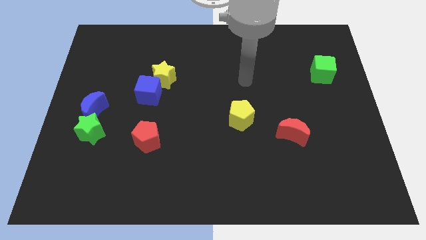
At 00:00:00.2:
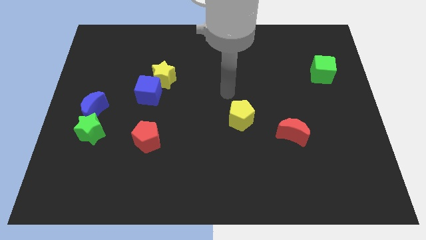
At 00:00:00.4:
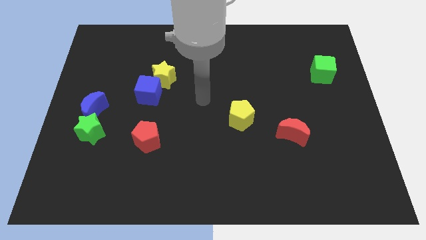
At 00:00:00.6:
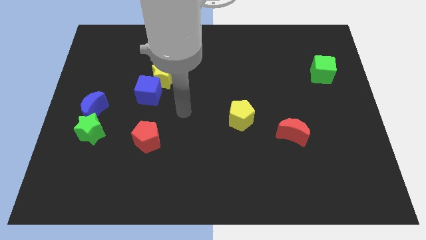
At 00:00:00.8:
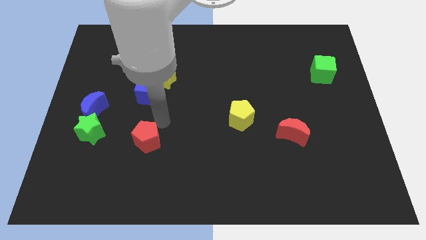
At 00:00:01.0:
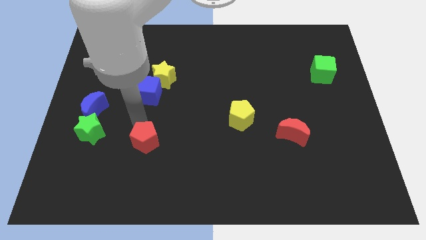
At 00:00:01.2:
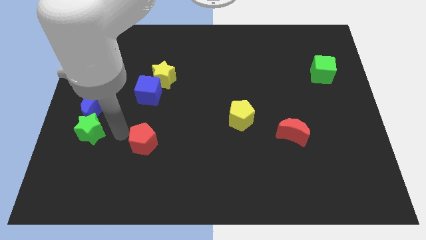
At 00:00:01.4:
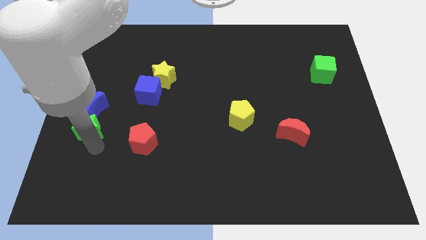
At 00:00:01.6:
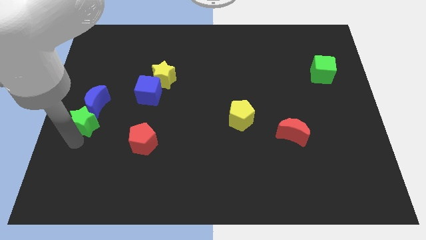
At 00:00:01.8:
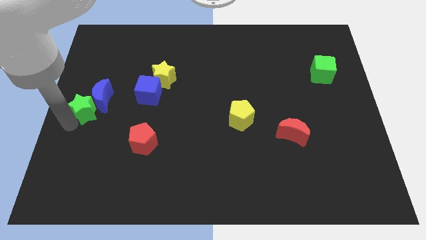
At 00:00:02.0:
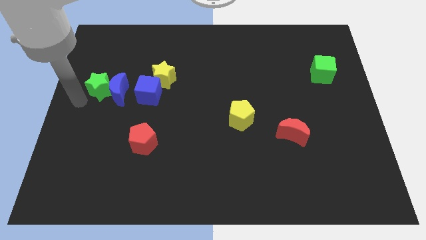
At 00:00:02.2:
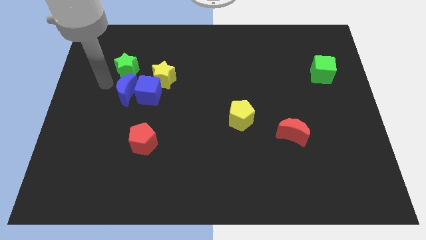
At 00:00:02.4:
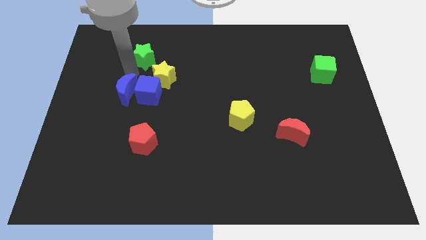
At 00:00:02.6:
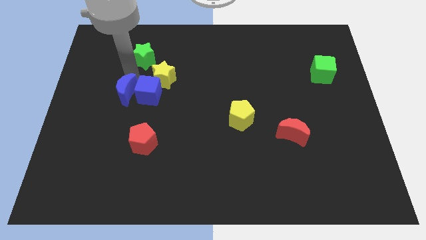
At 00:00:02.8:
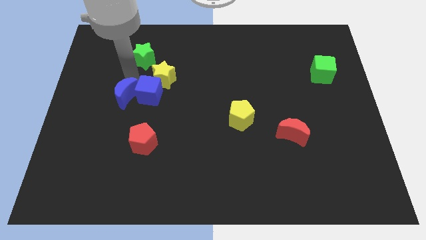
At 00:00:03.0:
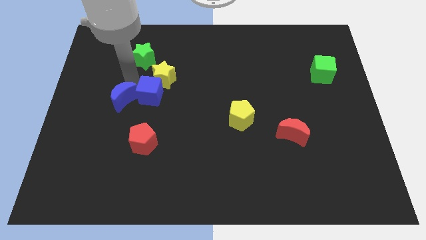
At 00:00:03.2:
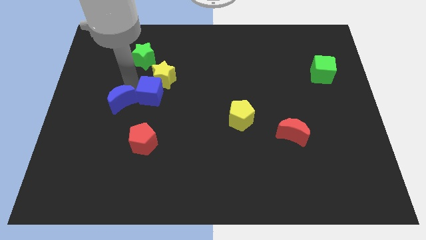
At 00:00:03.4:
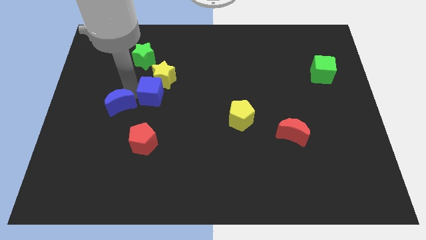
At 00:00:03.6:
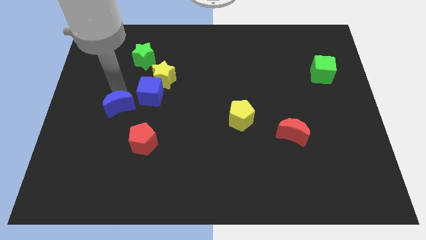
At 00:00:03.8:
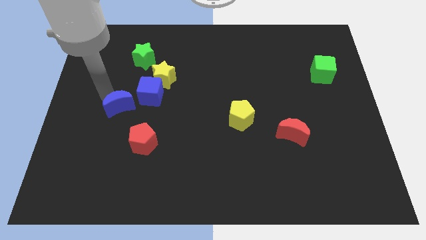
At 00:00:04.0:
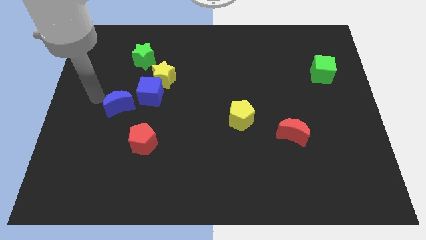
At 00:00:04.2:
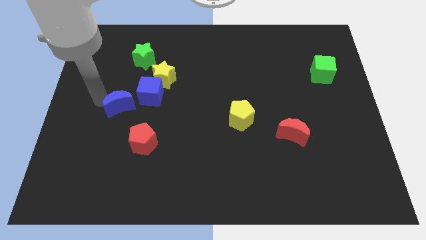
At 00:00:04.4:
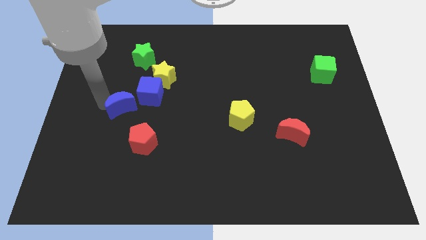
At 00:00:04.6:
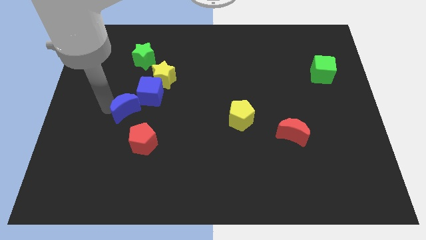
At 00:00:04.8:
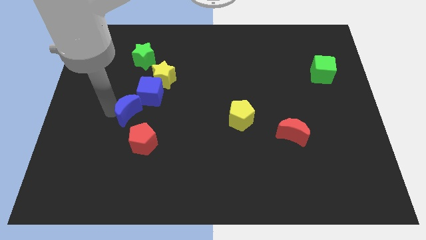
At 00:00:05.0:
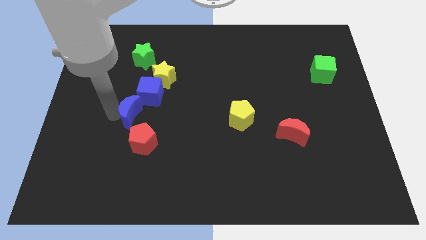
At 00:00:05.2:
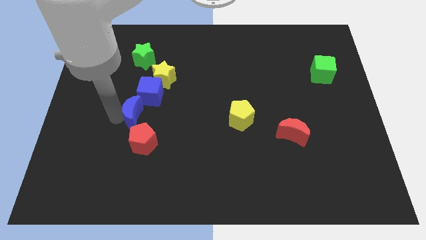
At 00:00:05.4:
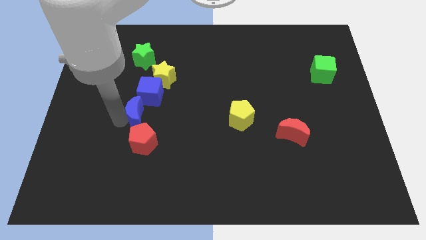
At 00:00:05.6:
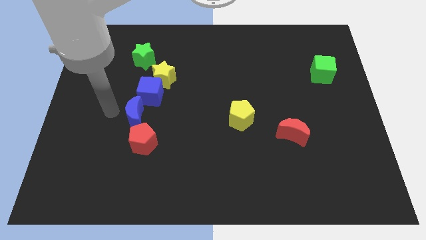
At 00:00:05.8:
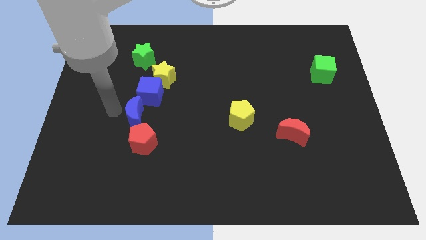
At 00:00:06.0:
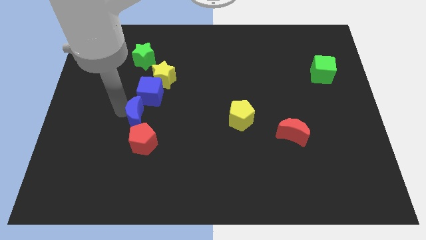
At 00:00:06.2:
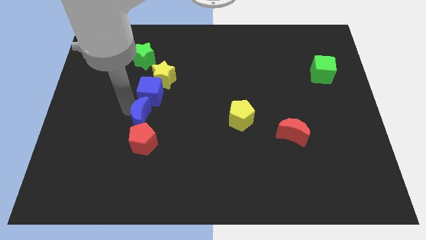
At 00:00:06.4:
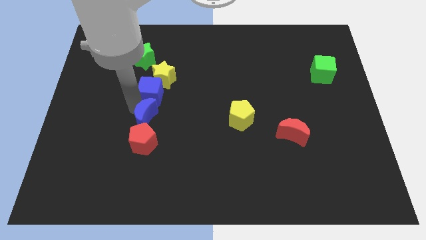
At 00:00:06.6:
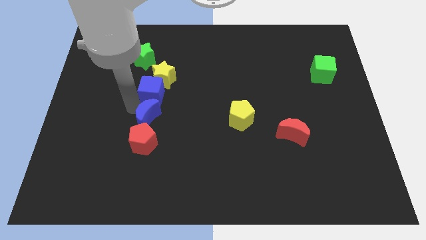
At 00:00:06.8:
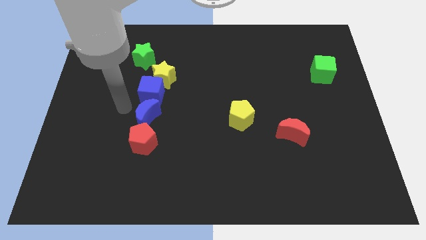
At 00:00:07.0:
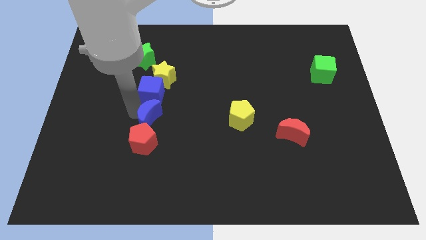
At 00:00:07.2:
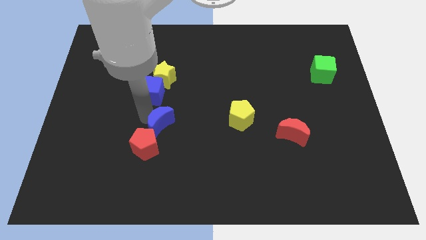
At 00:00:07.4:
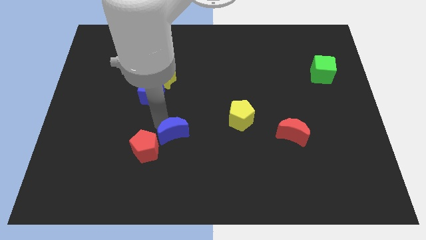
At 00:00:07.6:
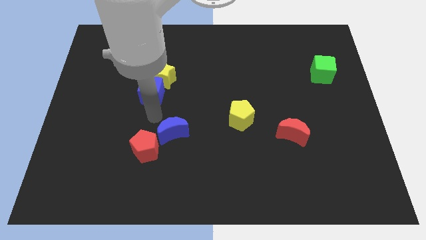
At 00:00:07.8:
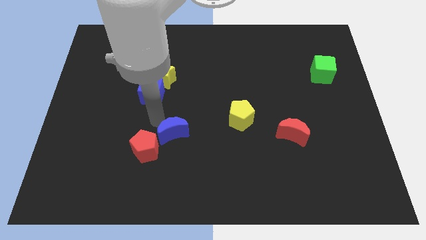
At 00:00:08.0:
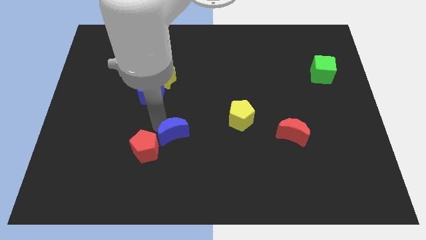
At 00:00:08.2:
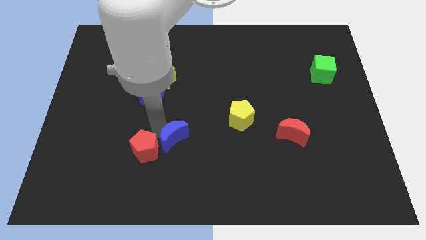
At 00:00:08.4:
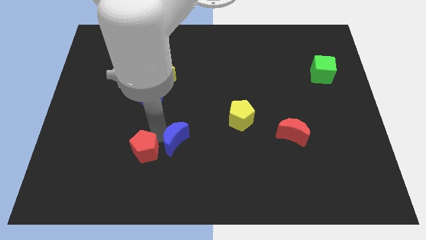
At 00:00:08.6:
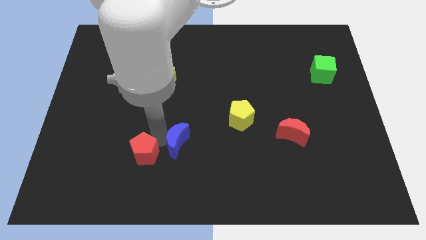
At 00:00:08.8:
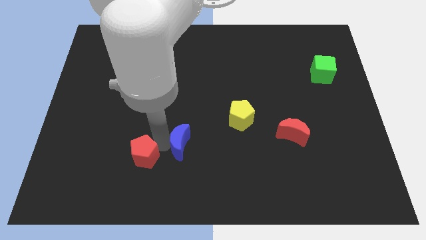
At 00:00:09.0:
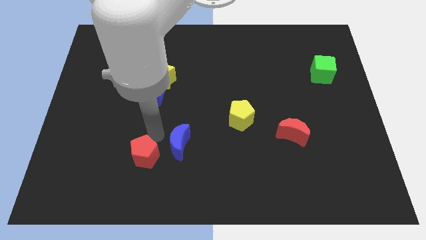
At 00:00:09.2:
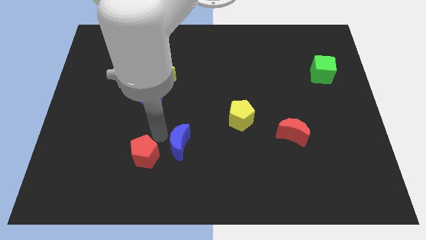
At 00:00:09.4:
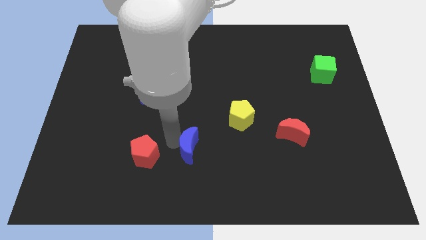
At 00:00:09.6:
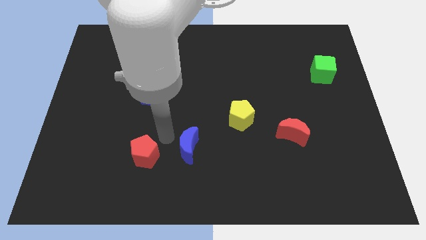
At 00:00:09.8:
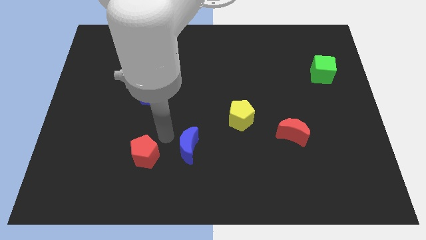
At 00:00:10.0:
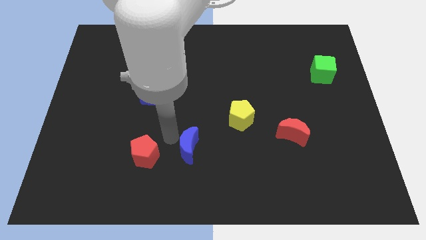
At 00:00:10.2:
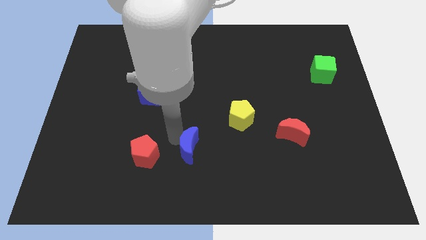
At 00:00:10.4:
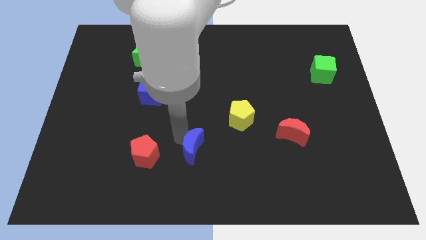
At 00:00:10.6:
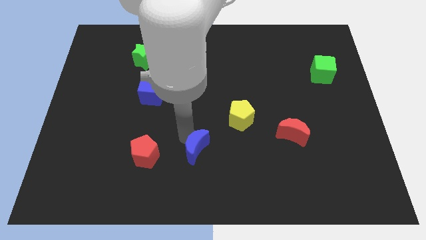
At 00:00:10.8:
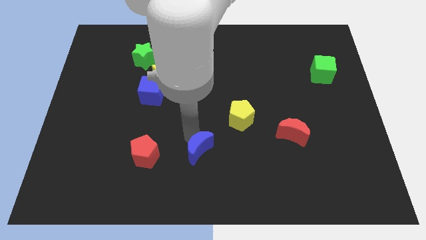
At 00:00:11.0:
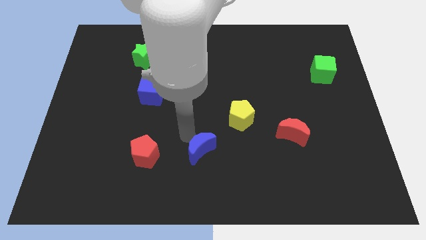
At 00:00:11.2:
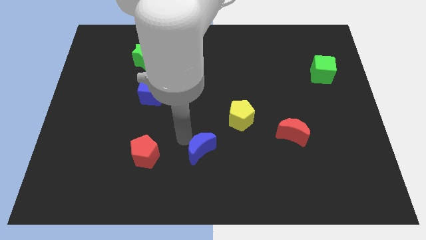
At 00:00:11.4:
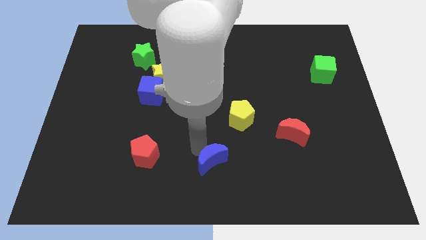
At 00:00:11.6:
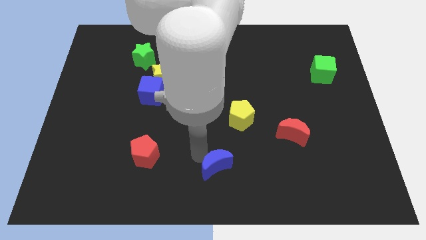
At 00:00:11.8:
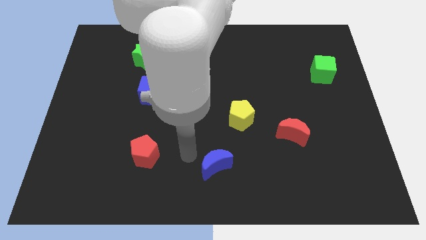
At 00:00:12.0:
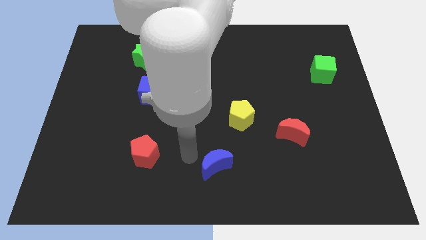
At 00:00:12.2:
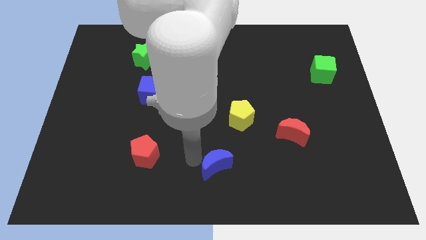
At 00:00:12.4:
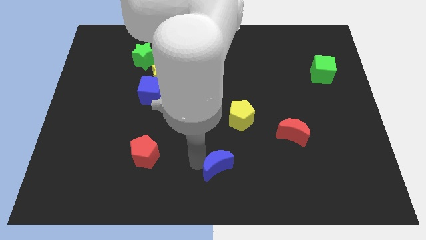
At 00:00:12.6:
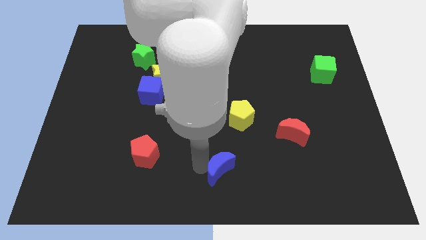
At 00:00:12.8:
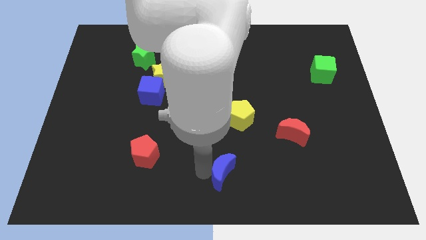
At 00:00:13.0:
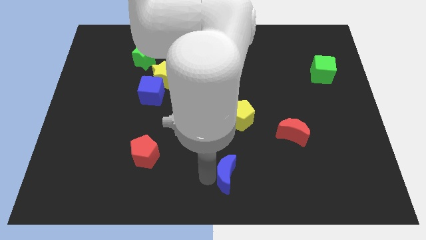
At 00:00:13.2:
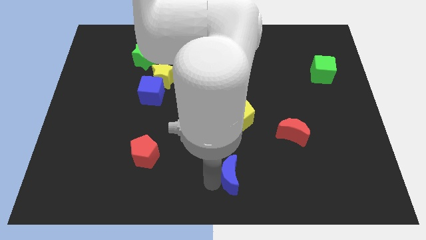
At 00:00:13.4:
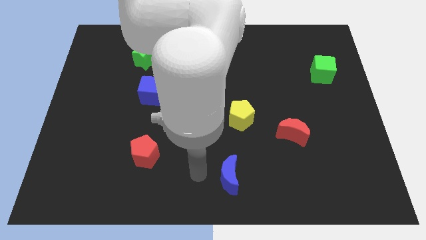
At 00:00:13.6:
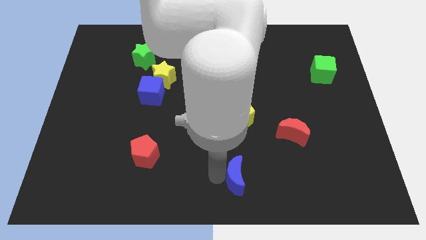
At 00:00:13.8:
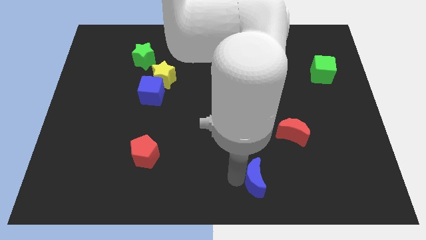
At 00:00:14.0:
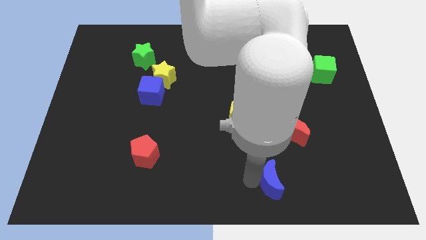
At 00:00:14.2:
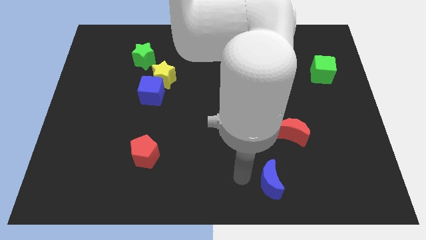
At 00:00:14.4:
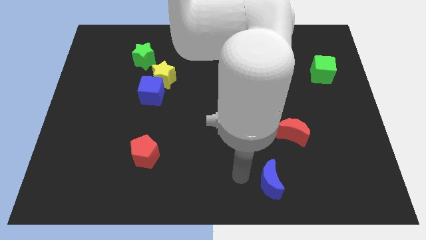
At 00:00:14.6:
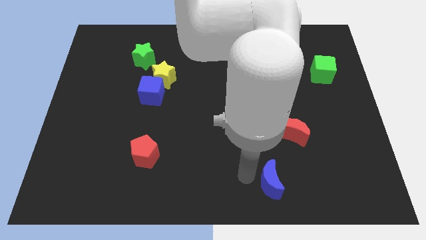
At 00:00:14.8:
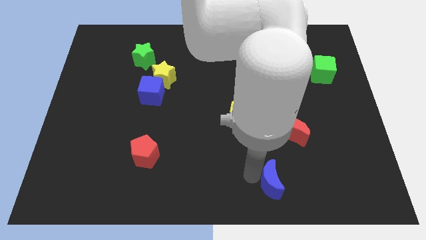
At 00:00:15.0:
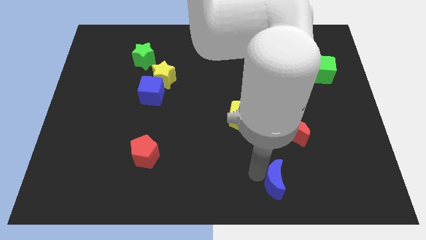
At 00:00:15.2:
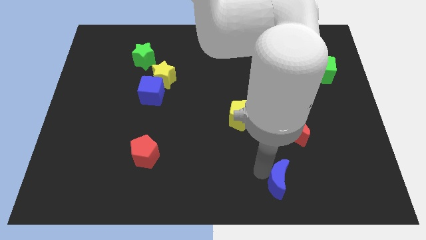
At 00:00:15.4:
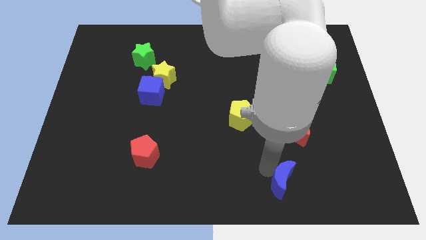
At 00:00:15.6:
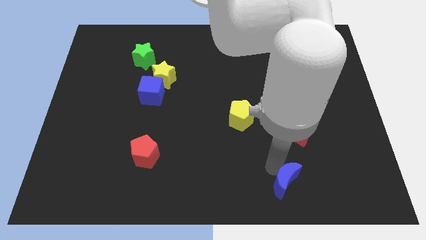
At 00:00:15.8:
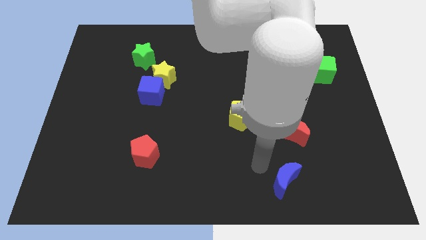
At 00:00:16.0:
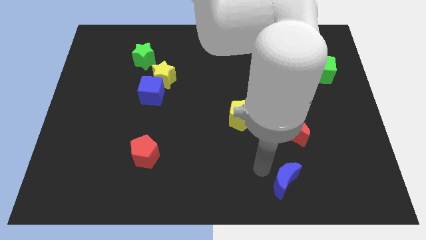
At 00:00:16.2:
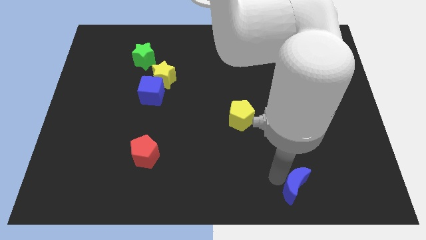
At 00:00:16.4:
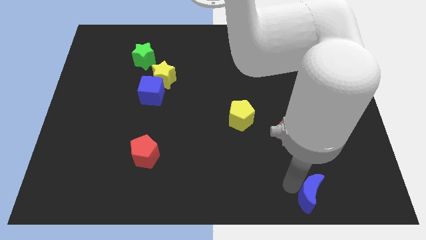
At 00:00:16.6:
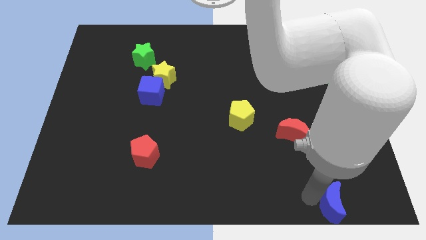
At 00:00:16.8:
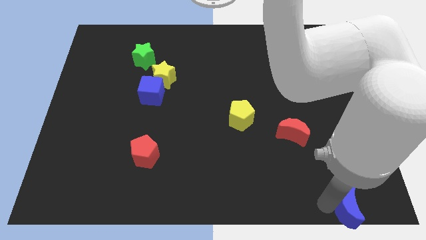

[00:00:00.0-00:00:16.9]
put the blue moon to the bottom right corner
